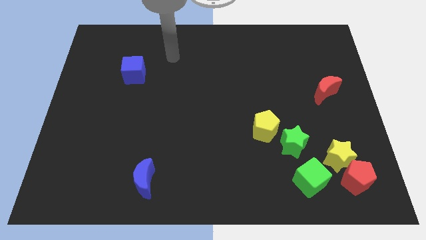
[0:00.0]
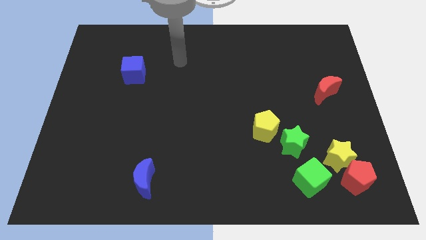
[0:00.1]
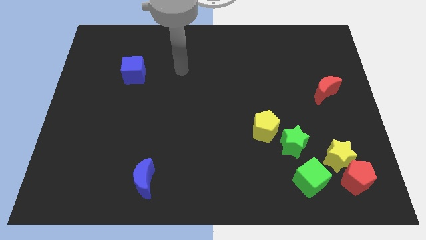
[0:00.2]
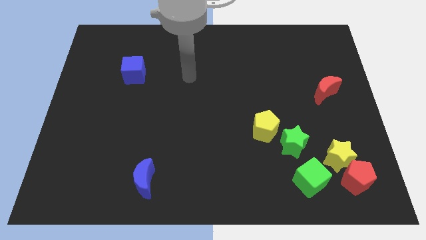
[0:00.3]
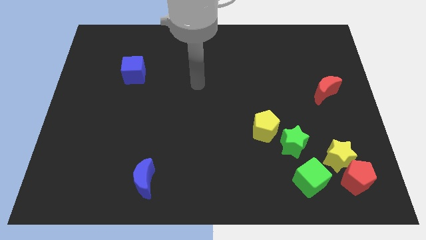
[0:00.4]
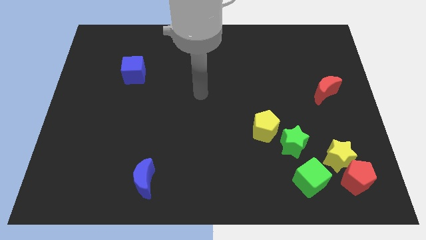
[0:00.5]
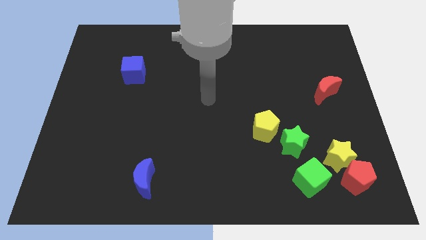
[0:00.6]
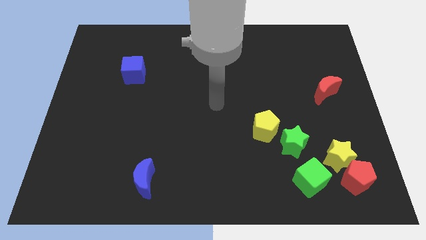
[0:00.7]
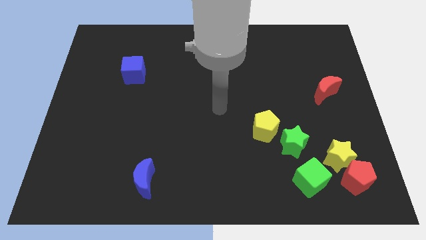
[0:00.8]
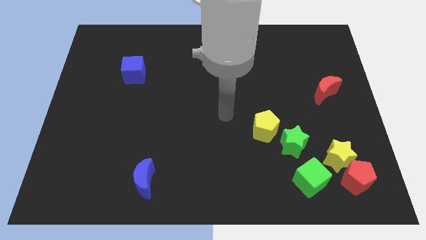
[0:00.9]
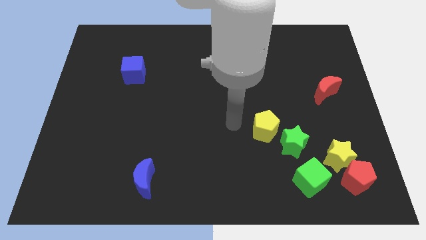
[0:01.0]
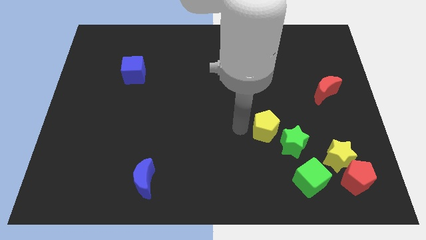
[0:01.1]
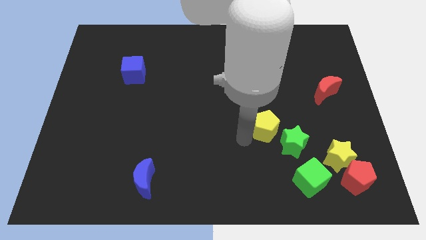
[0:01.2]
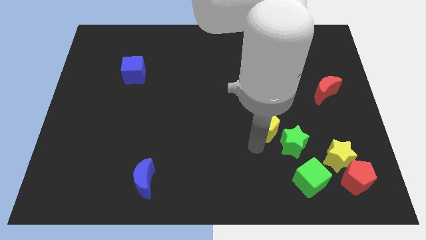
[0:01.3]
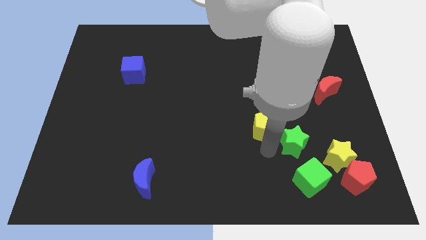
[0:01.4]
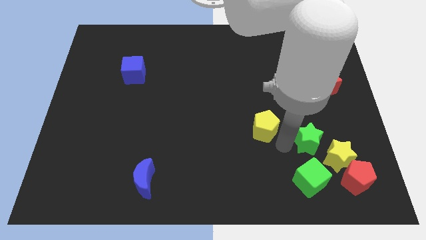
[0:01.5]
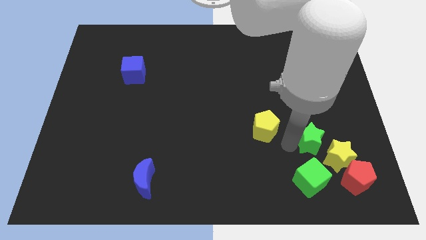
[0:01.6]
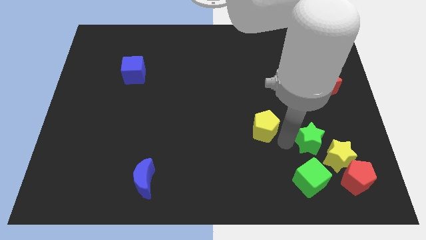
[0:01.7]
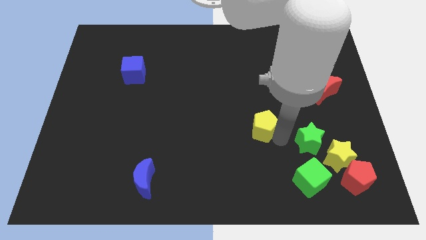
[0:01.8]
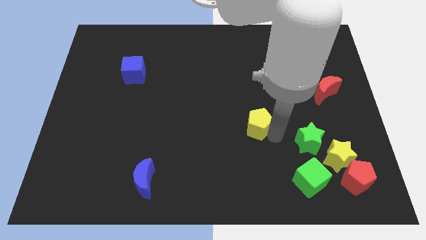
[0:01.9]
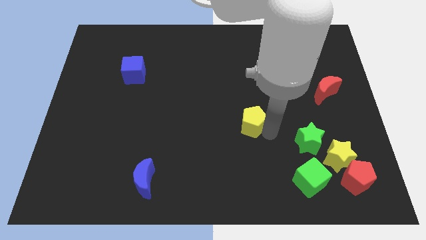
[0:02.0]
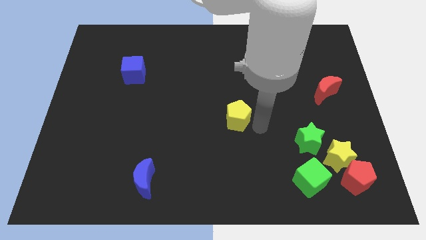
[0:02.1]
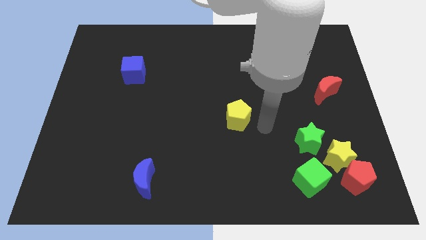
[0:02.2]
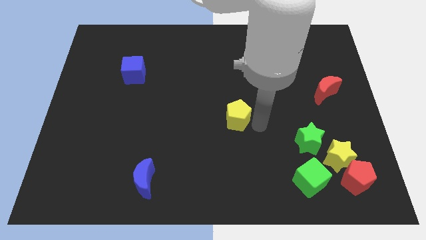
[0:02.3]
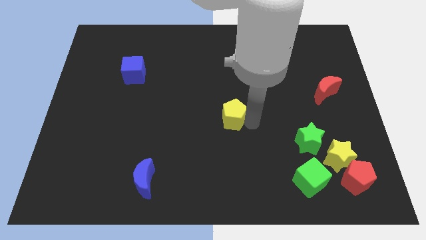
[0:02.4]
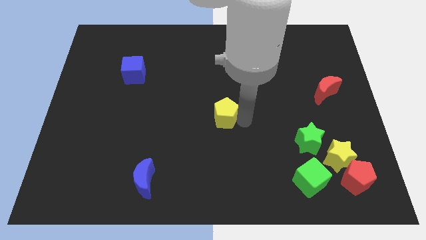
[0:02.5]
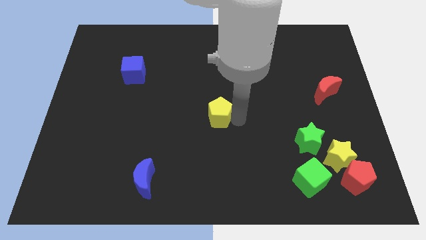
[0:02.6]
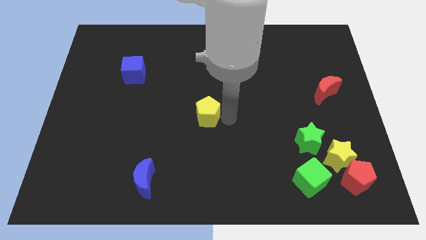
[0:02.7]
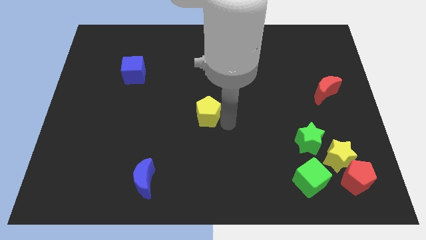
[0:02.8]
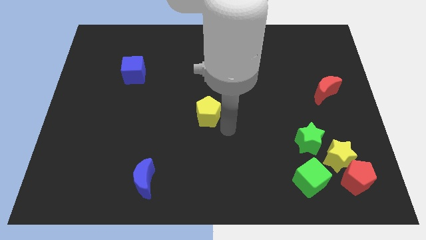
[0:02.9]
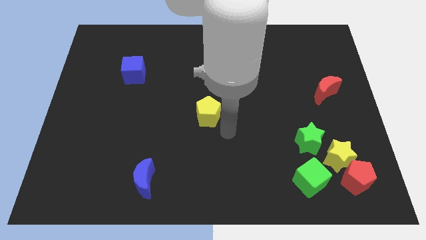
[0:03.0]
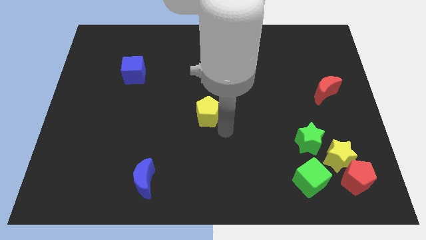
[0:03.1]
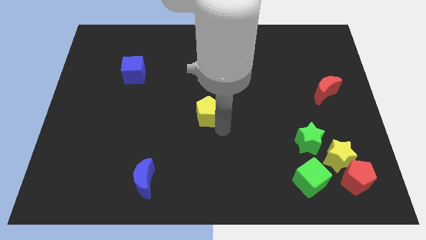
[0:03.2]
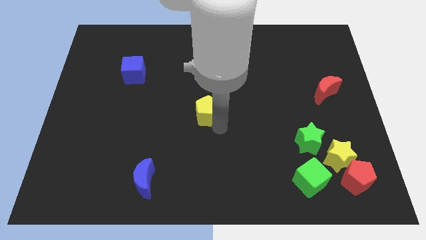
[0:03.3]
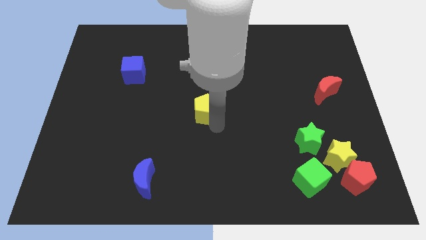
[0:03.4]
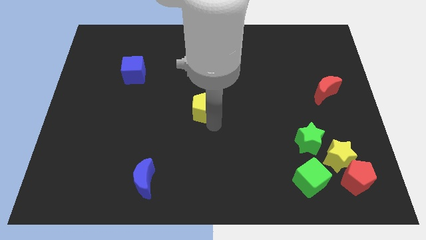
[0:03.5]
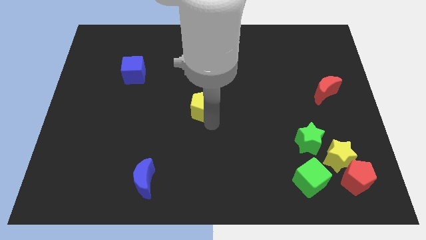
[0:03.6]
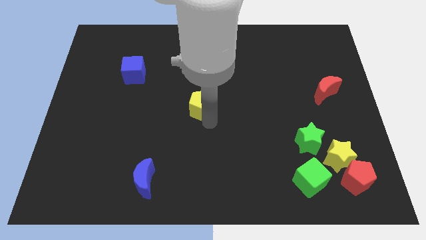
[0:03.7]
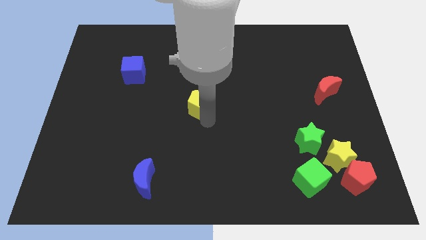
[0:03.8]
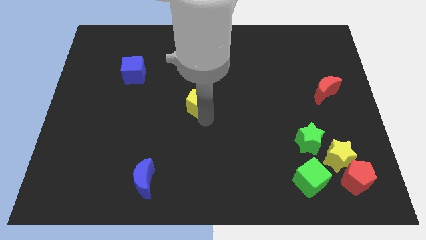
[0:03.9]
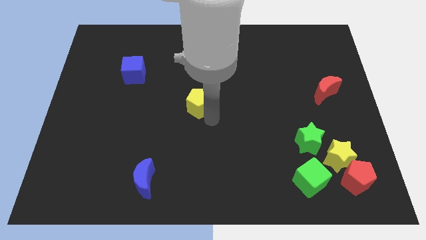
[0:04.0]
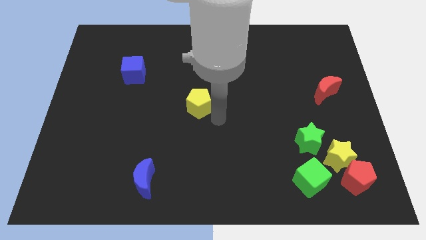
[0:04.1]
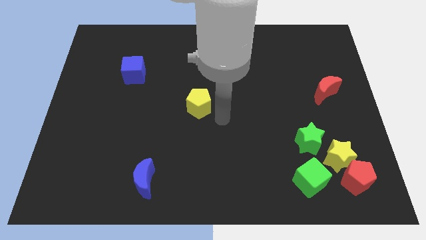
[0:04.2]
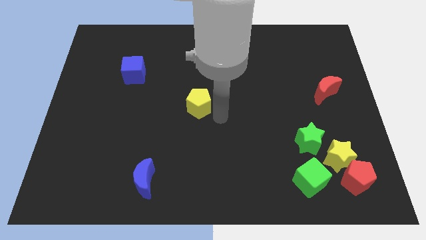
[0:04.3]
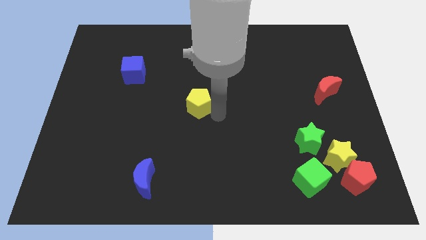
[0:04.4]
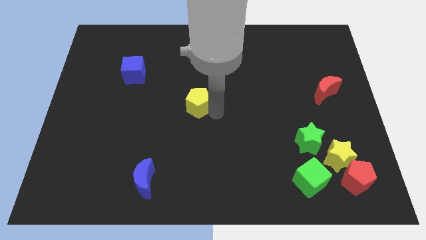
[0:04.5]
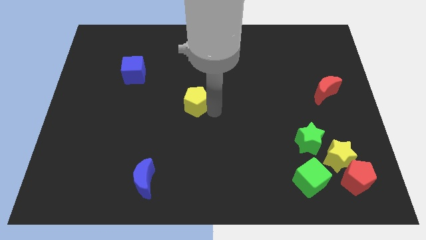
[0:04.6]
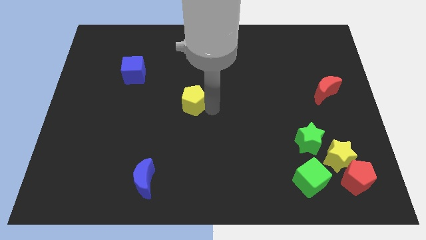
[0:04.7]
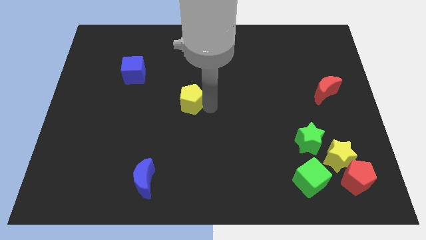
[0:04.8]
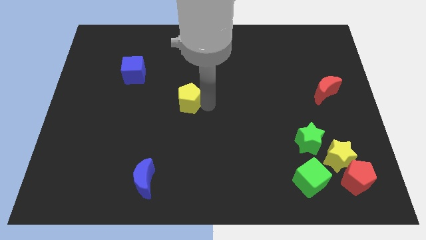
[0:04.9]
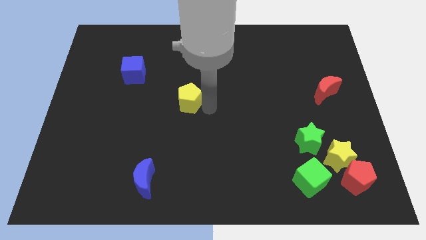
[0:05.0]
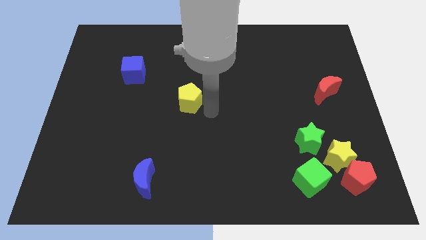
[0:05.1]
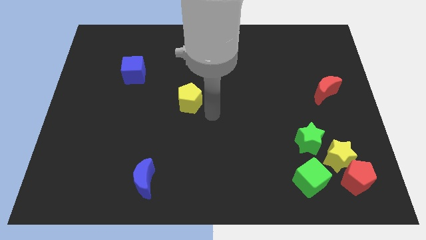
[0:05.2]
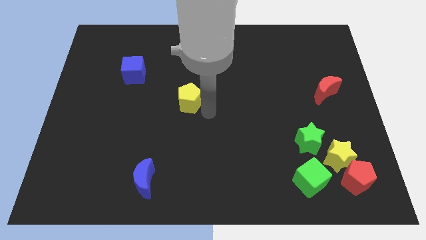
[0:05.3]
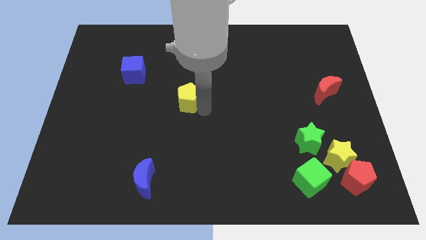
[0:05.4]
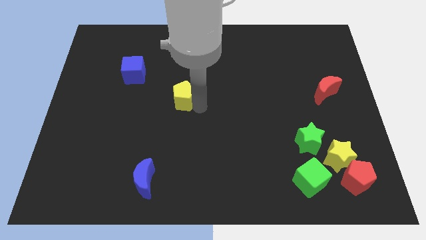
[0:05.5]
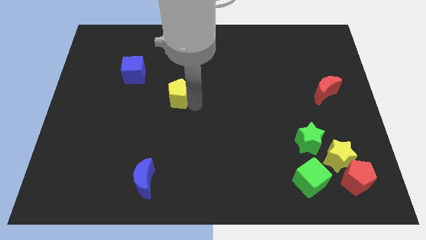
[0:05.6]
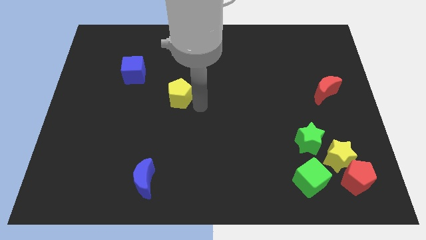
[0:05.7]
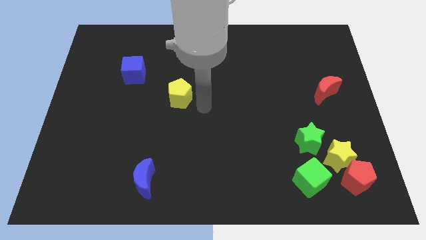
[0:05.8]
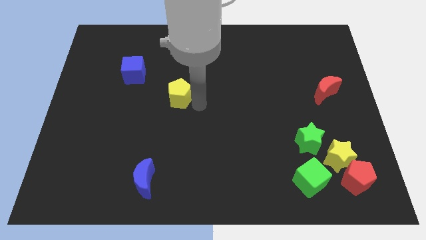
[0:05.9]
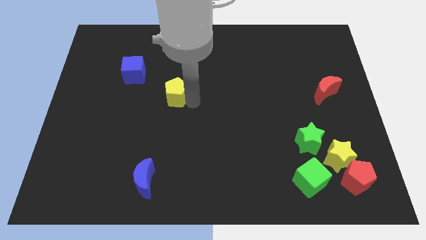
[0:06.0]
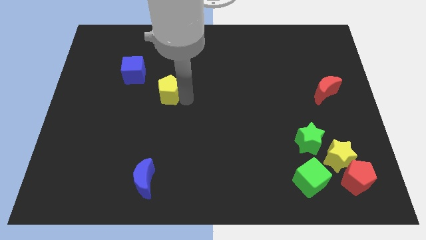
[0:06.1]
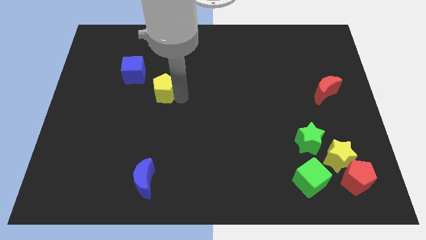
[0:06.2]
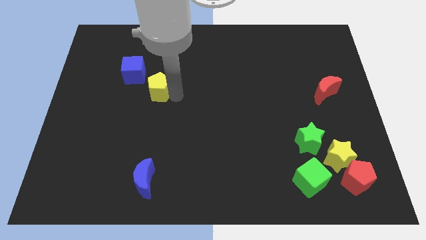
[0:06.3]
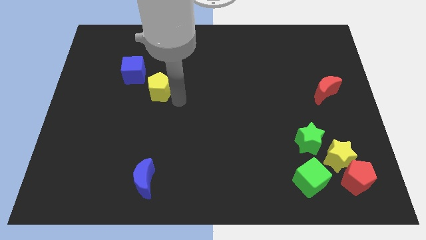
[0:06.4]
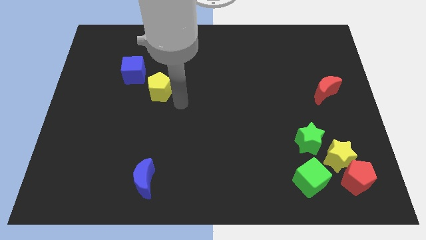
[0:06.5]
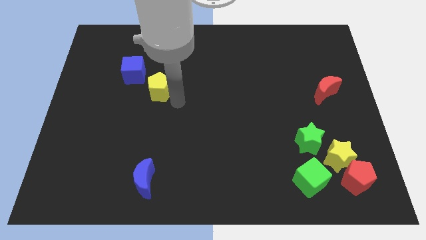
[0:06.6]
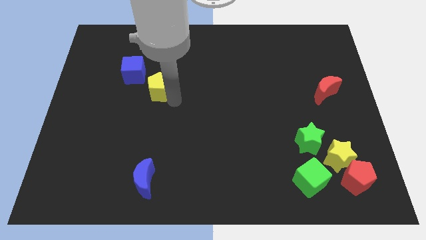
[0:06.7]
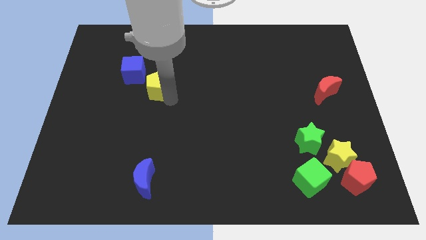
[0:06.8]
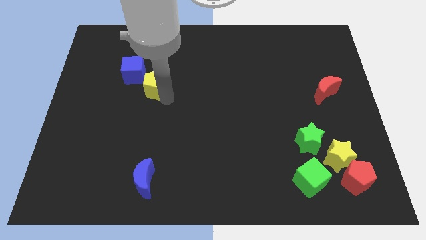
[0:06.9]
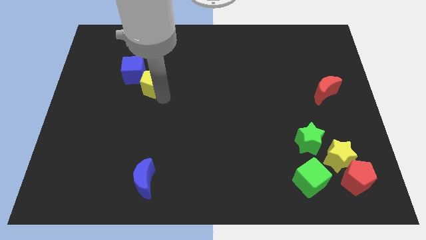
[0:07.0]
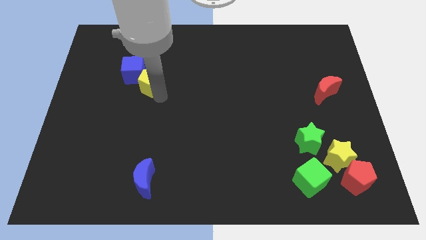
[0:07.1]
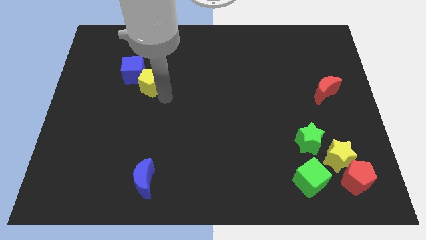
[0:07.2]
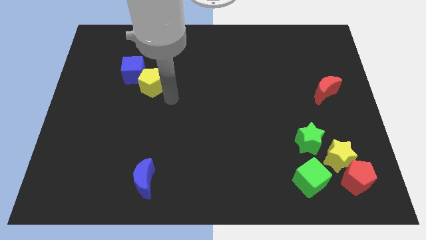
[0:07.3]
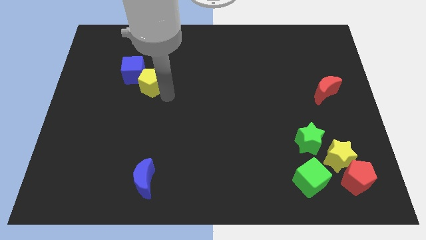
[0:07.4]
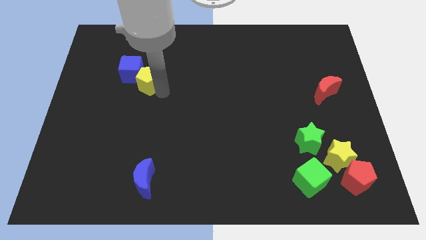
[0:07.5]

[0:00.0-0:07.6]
push the yellow pentagon towards the blue cube

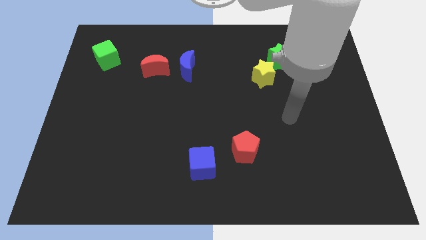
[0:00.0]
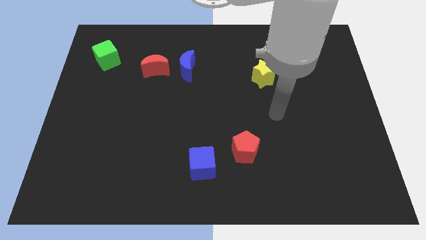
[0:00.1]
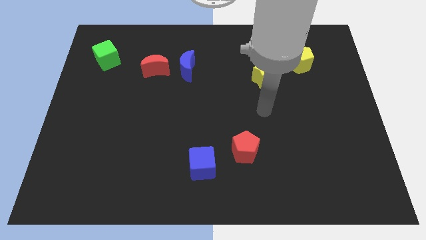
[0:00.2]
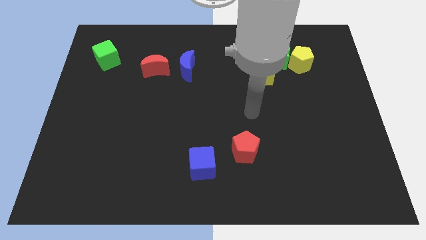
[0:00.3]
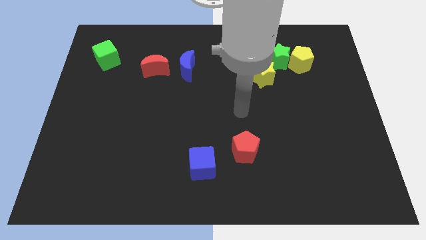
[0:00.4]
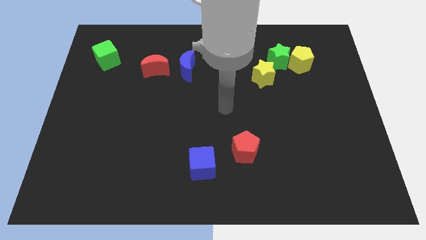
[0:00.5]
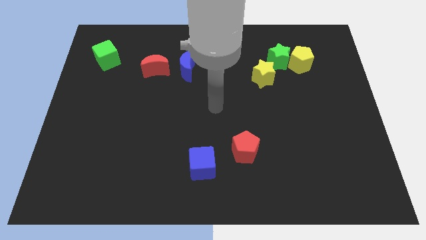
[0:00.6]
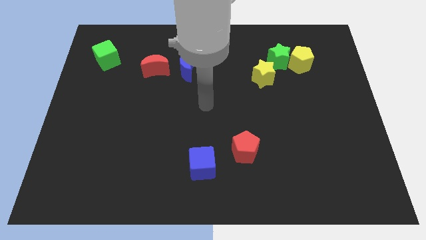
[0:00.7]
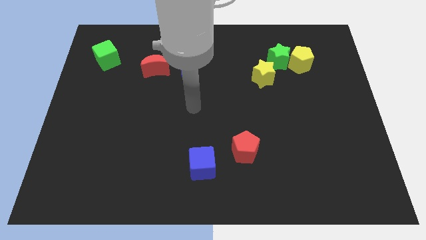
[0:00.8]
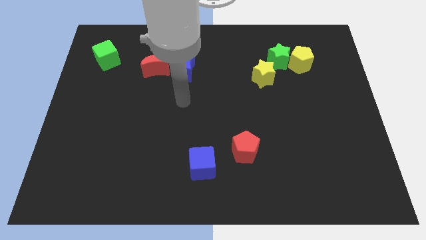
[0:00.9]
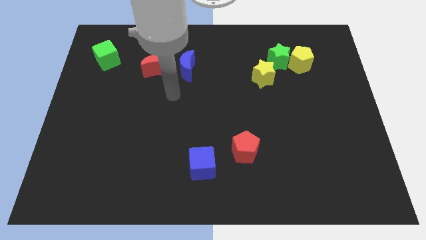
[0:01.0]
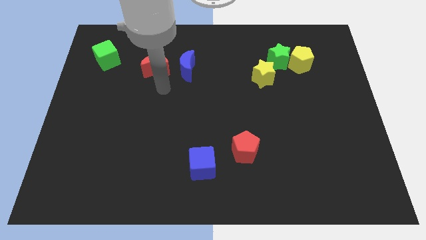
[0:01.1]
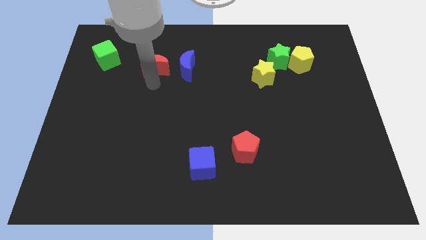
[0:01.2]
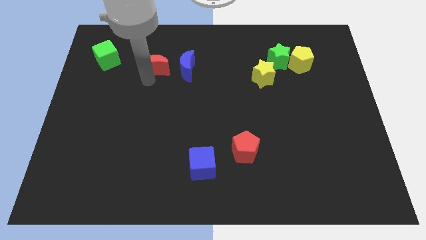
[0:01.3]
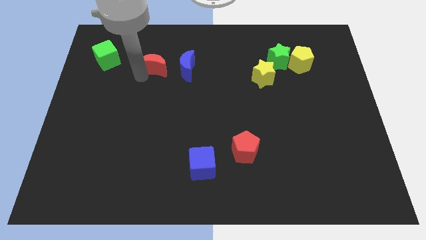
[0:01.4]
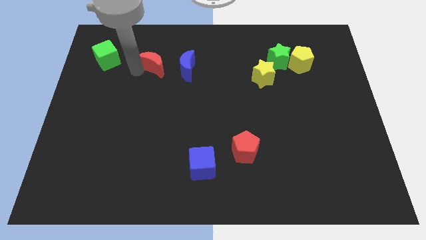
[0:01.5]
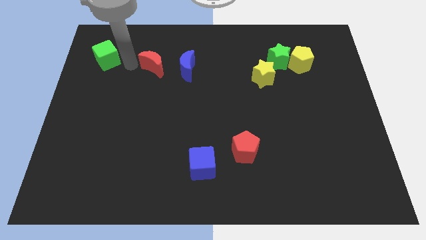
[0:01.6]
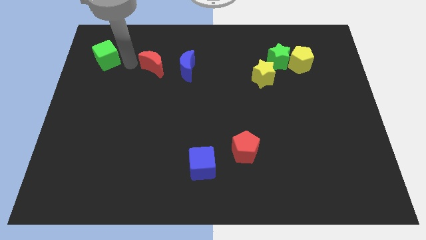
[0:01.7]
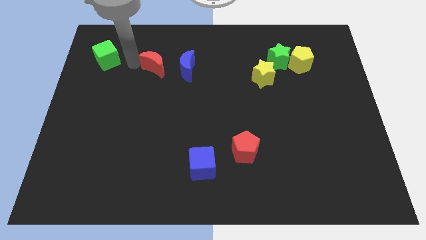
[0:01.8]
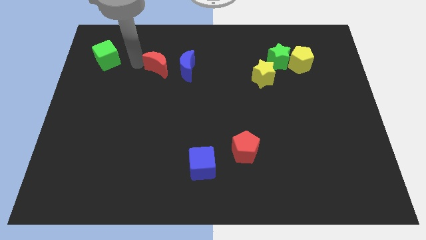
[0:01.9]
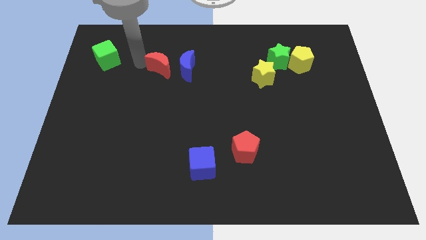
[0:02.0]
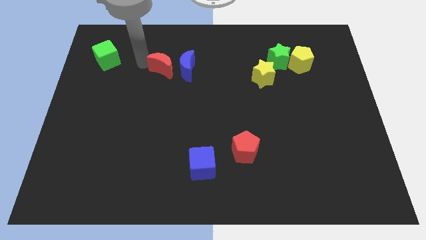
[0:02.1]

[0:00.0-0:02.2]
slide the red moon close to the blue moon
